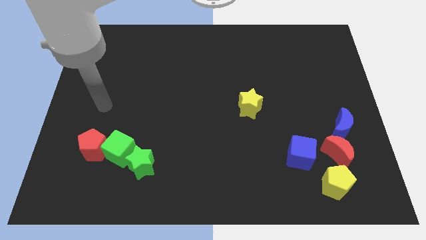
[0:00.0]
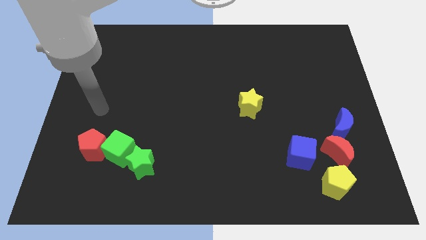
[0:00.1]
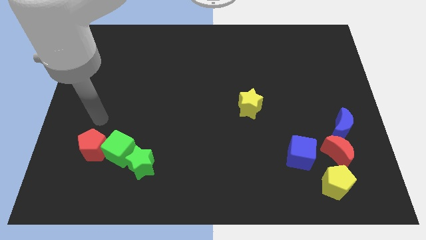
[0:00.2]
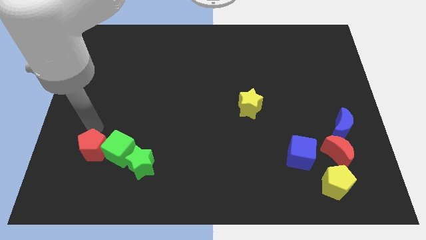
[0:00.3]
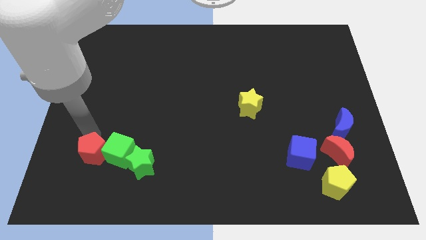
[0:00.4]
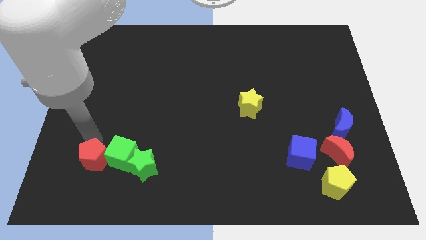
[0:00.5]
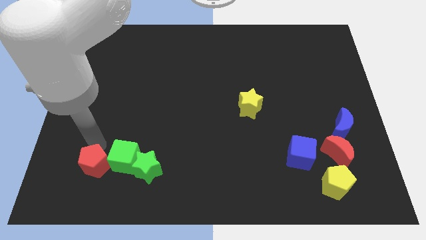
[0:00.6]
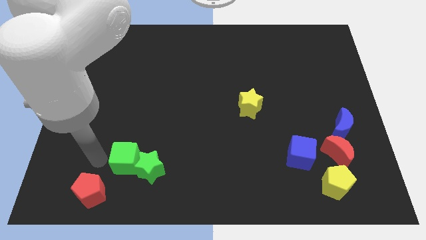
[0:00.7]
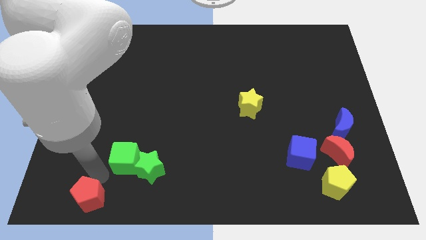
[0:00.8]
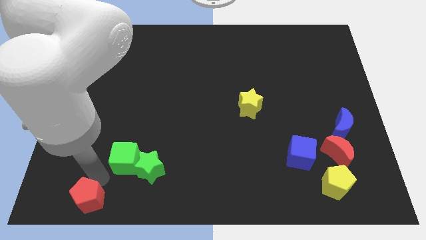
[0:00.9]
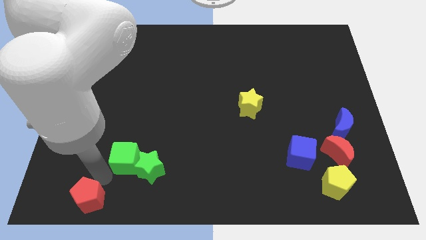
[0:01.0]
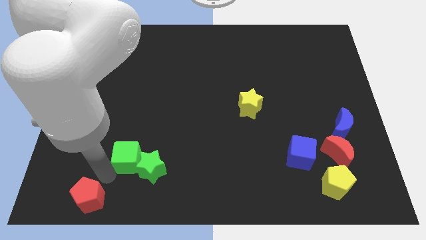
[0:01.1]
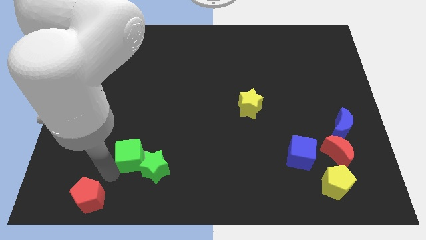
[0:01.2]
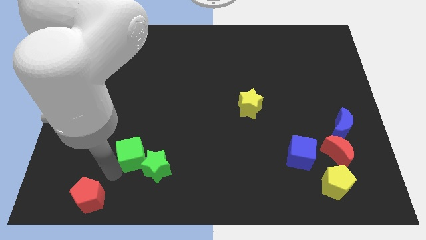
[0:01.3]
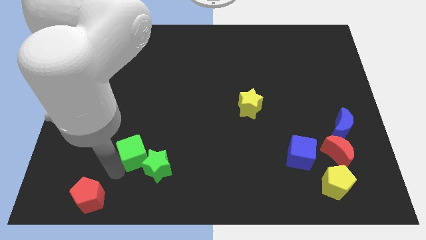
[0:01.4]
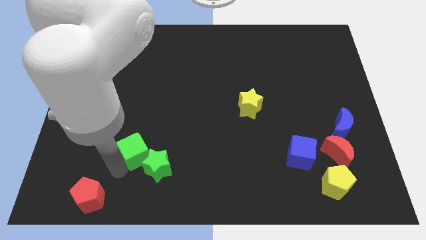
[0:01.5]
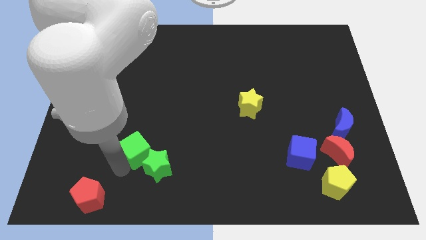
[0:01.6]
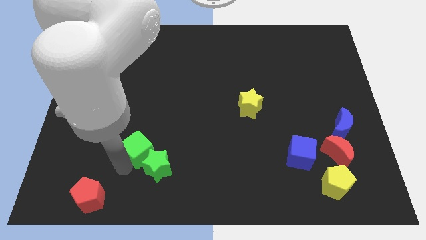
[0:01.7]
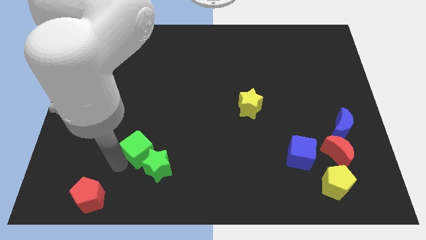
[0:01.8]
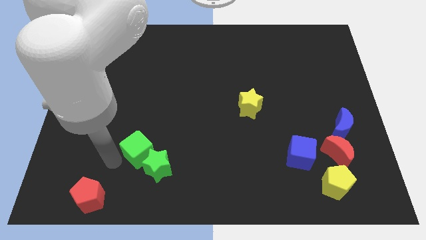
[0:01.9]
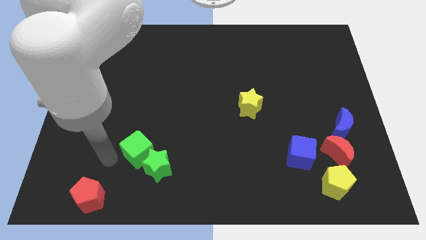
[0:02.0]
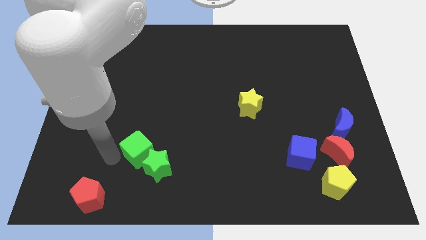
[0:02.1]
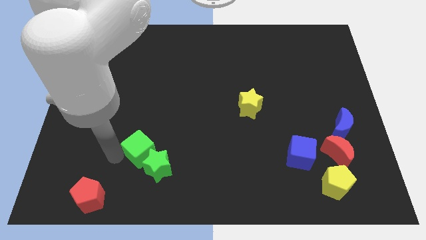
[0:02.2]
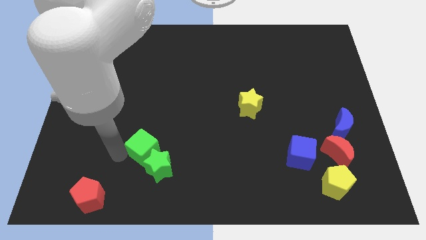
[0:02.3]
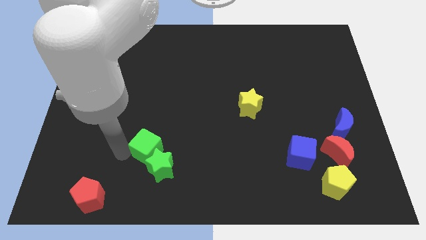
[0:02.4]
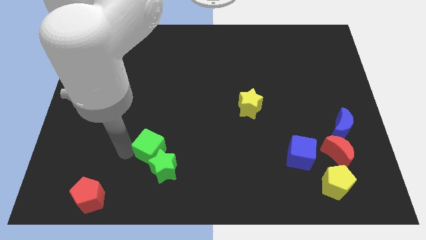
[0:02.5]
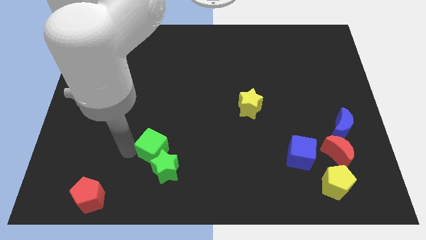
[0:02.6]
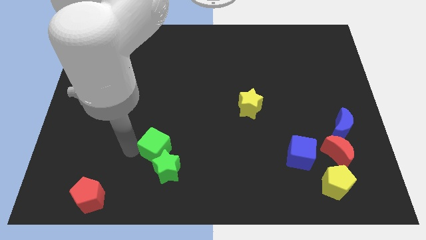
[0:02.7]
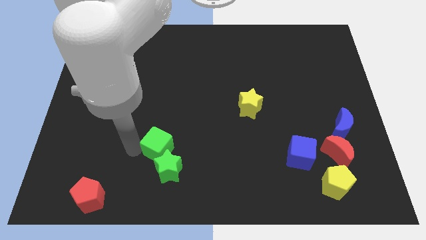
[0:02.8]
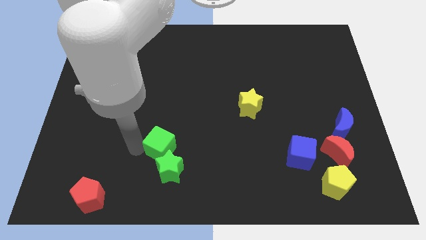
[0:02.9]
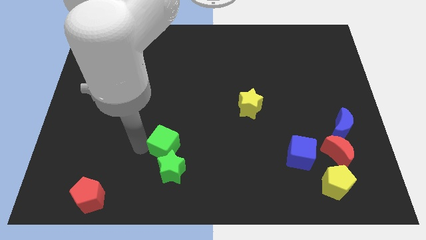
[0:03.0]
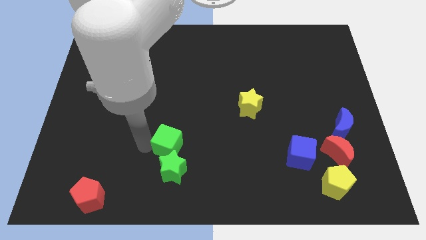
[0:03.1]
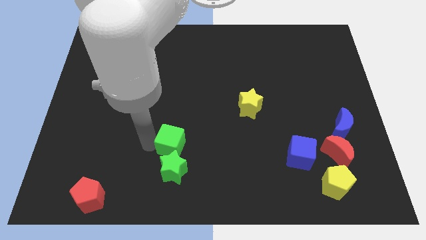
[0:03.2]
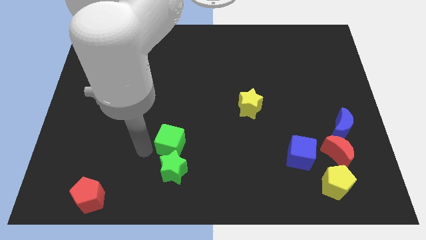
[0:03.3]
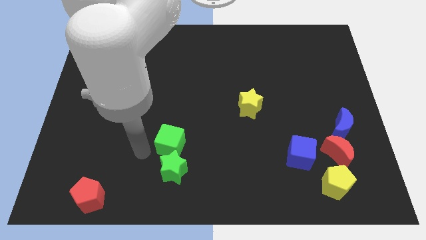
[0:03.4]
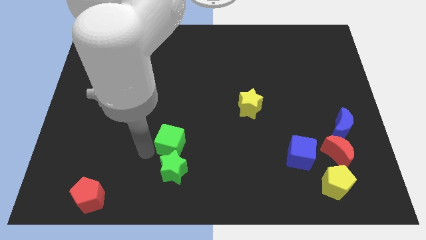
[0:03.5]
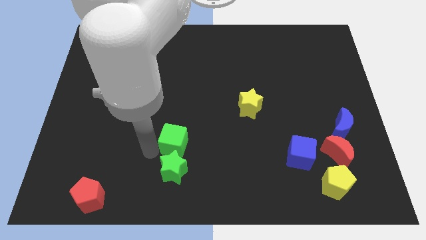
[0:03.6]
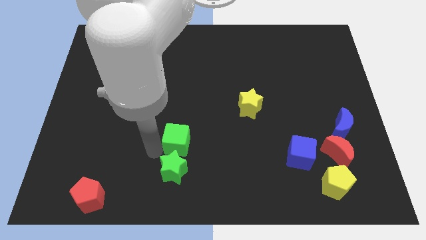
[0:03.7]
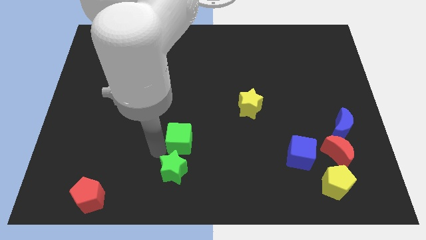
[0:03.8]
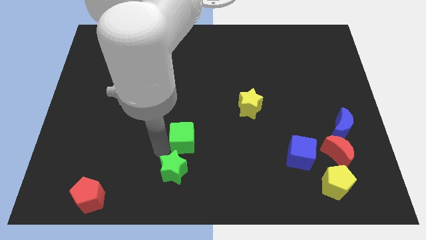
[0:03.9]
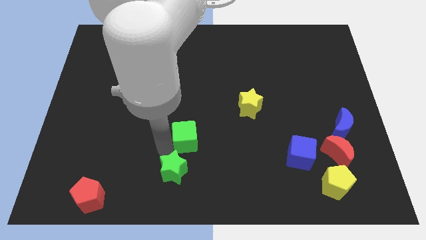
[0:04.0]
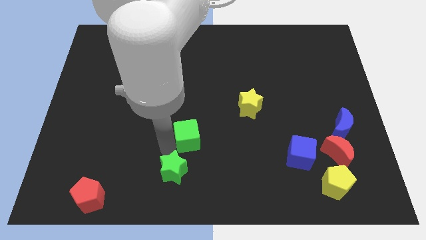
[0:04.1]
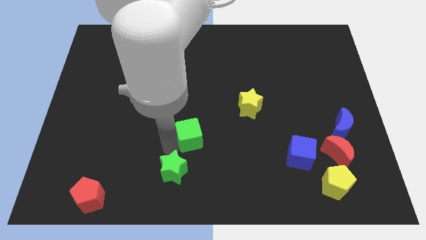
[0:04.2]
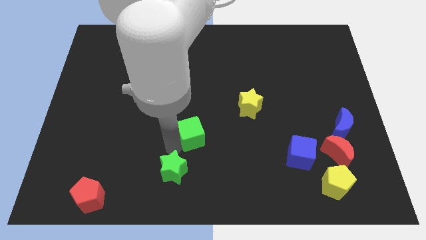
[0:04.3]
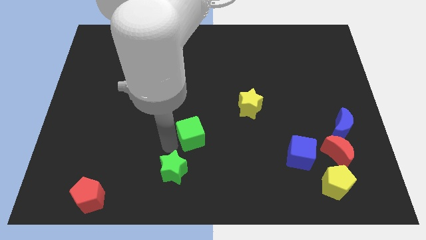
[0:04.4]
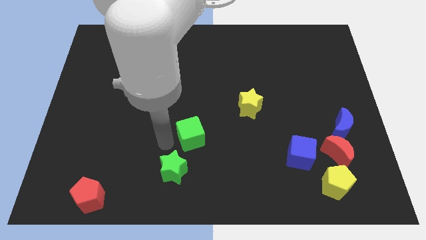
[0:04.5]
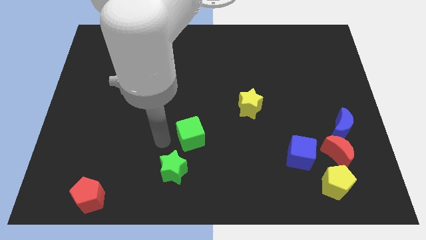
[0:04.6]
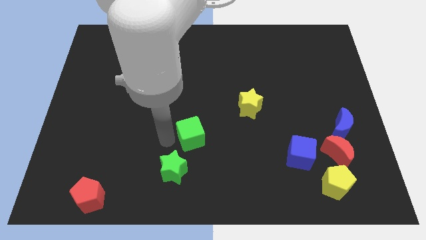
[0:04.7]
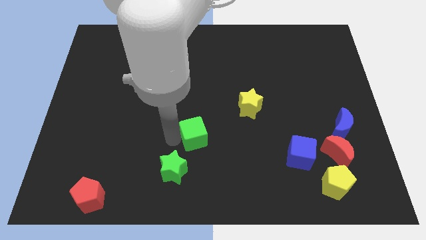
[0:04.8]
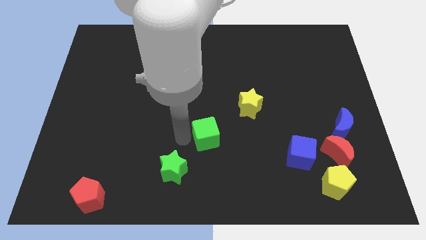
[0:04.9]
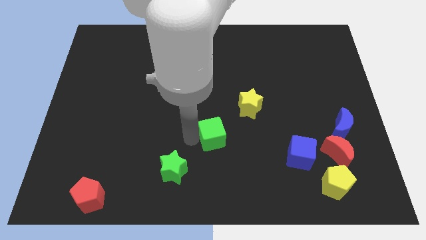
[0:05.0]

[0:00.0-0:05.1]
push the green cube to the bottom left side of the yellow star

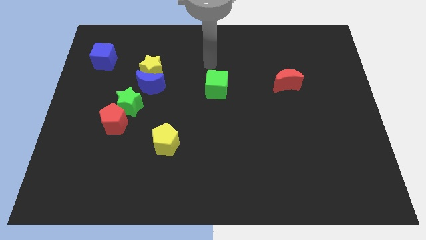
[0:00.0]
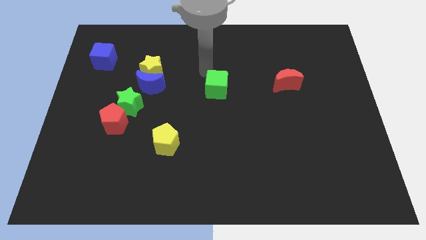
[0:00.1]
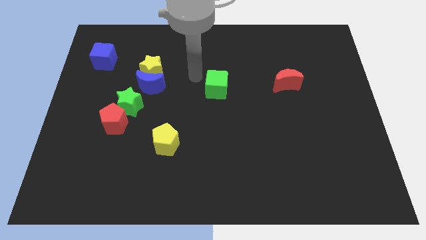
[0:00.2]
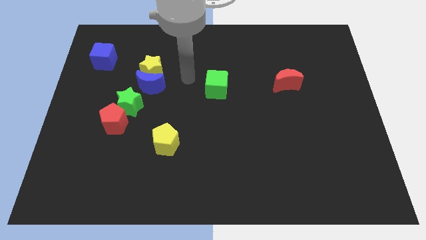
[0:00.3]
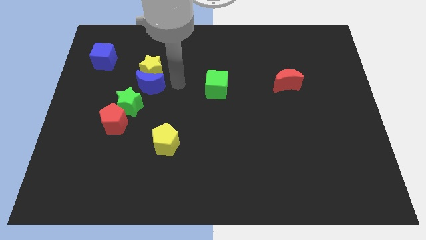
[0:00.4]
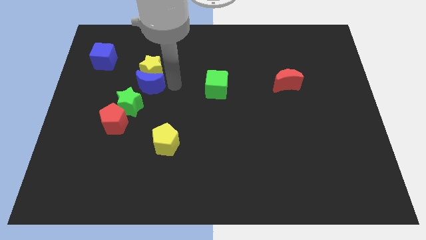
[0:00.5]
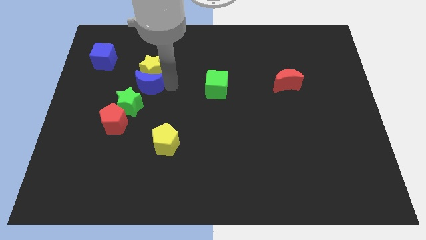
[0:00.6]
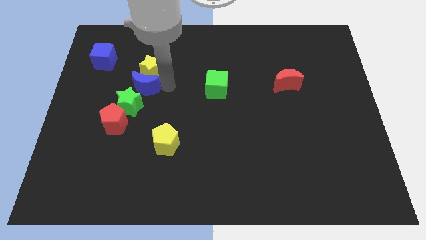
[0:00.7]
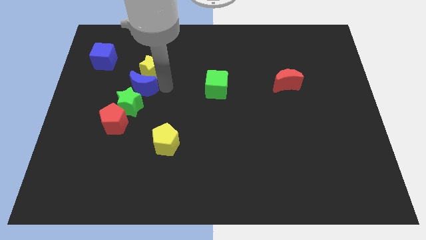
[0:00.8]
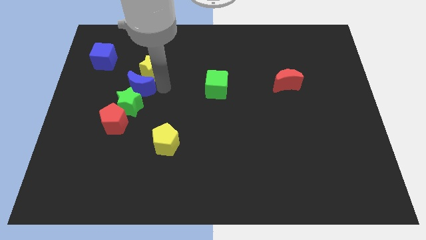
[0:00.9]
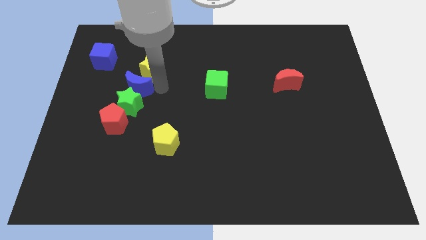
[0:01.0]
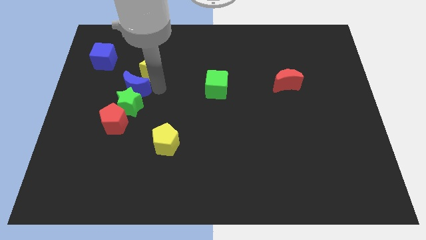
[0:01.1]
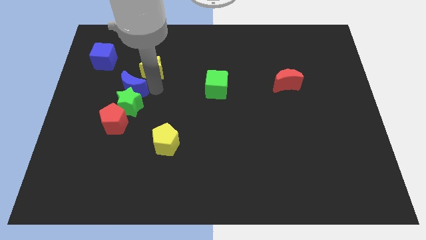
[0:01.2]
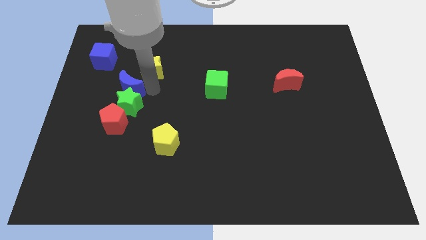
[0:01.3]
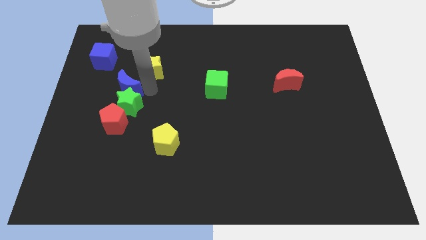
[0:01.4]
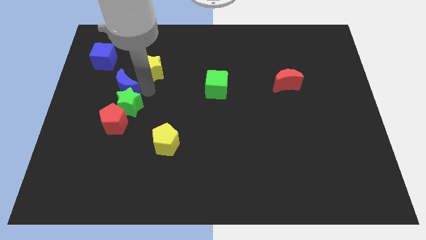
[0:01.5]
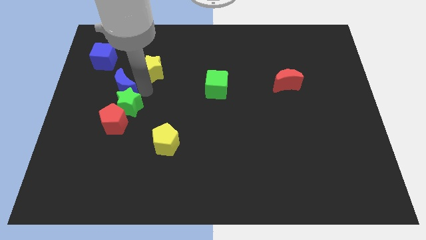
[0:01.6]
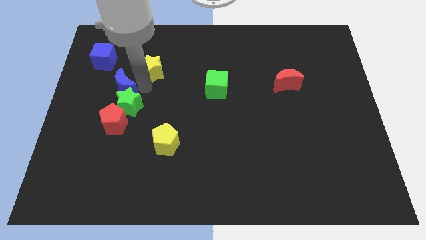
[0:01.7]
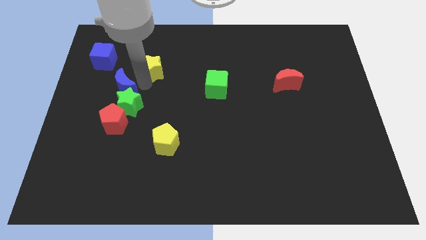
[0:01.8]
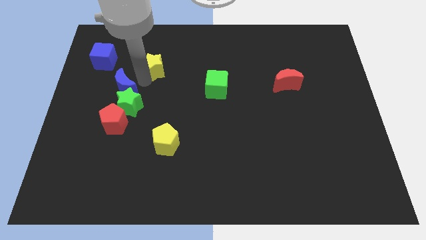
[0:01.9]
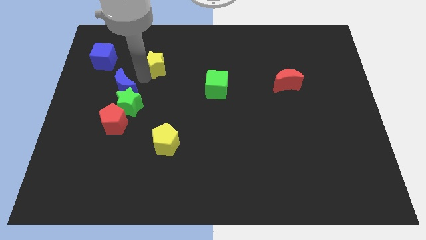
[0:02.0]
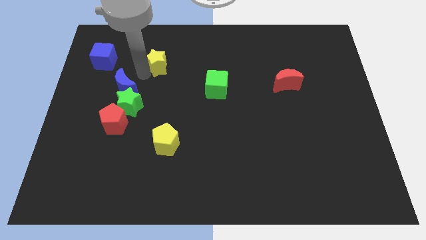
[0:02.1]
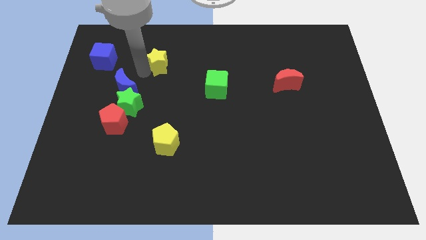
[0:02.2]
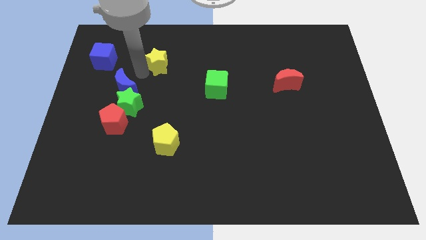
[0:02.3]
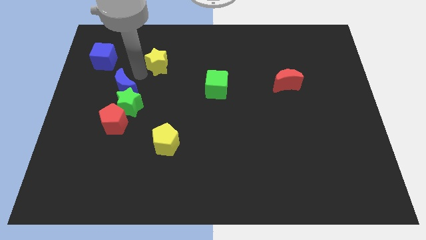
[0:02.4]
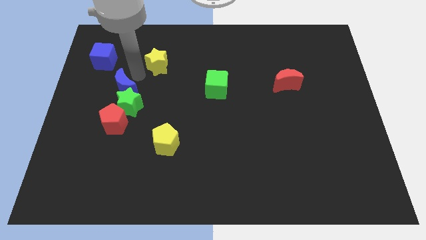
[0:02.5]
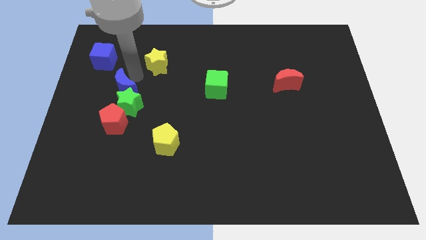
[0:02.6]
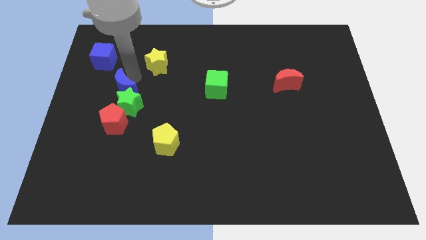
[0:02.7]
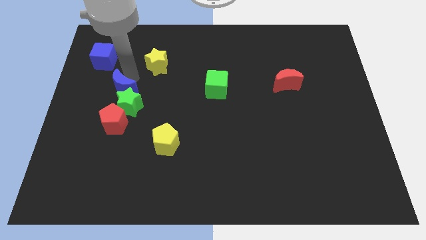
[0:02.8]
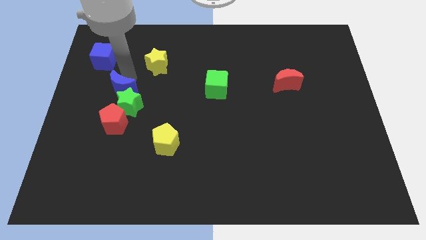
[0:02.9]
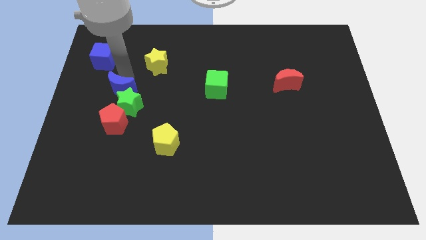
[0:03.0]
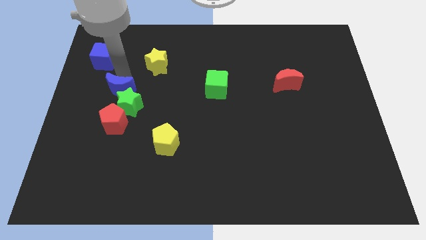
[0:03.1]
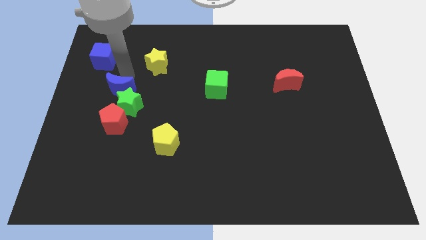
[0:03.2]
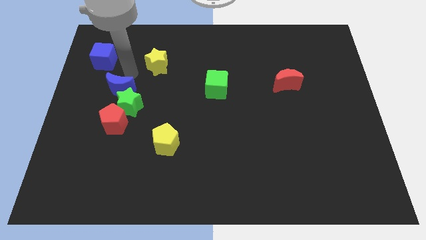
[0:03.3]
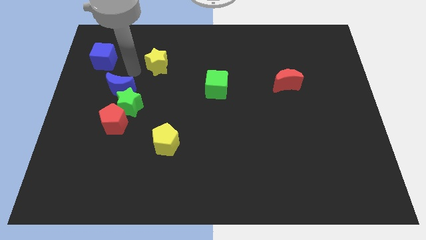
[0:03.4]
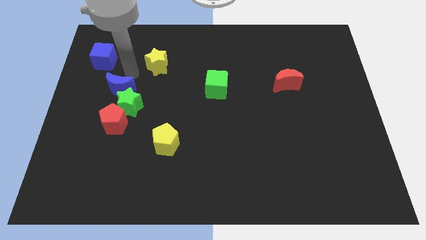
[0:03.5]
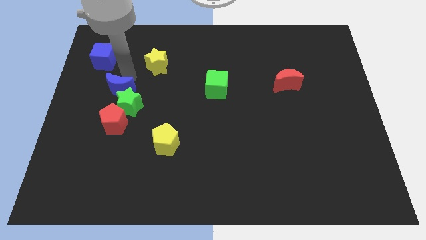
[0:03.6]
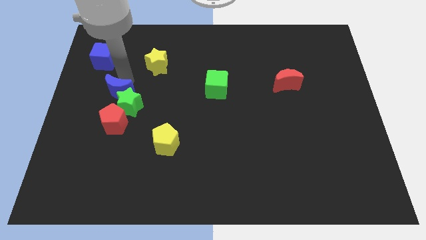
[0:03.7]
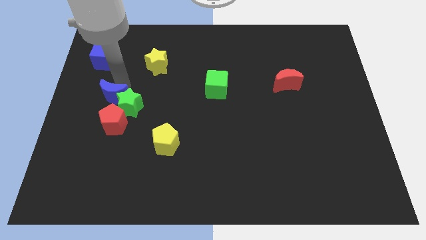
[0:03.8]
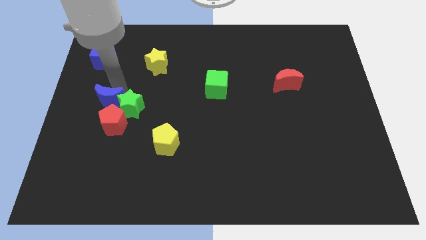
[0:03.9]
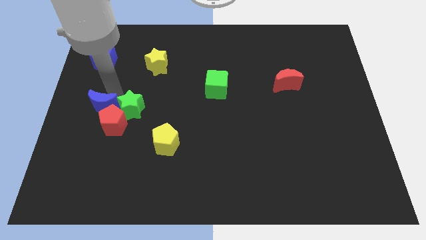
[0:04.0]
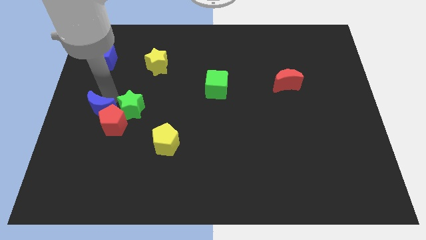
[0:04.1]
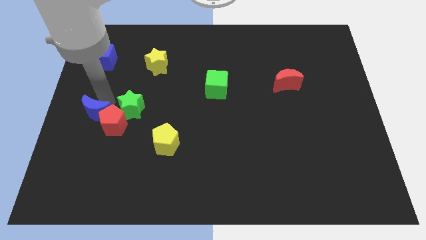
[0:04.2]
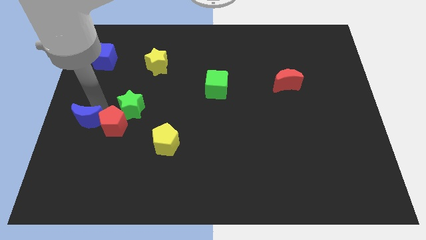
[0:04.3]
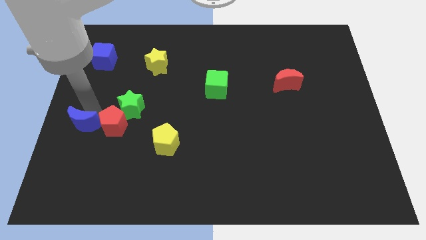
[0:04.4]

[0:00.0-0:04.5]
slide the blue moon to the bottom left side of the red pentagon
